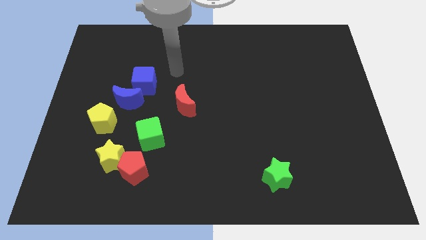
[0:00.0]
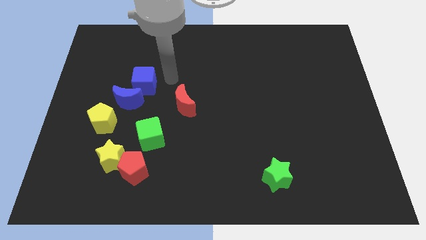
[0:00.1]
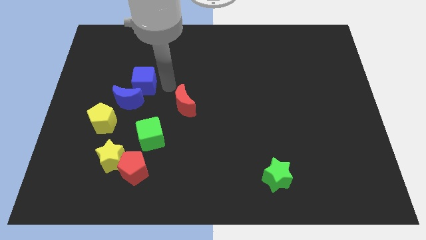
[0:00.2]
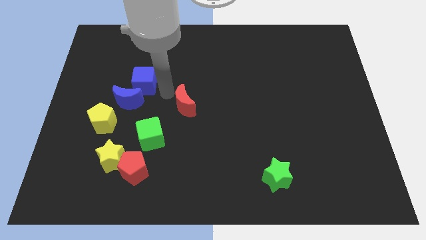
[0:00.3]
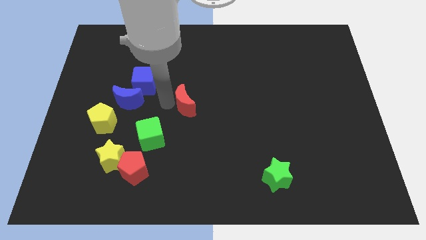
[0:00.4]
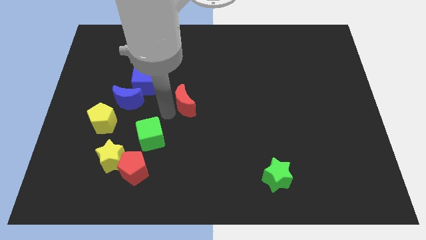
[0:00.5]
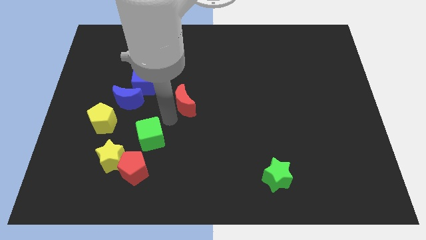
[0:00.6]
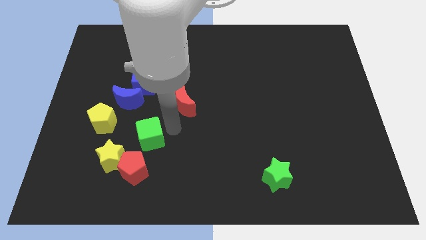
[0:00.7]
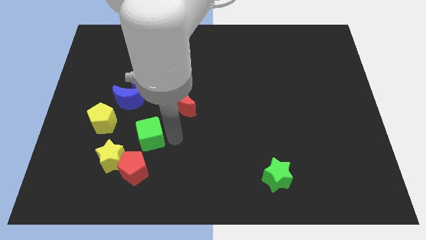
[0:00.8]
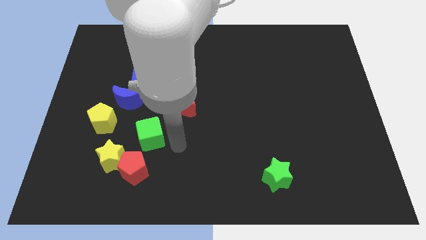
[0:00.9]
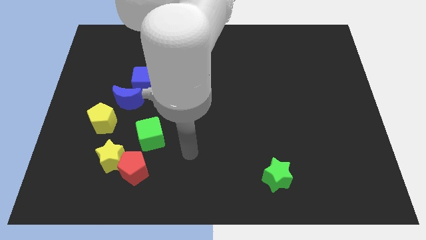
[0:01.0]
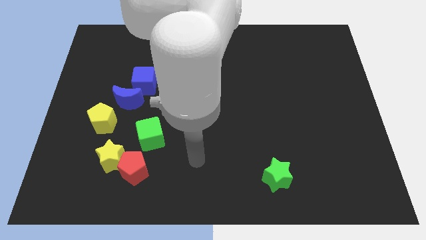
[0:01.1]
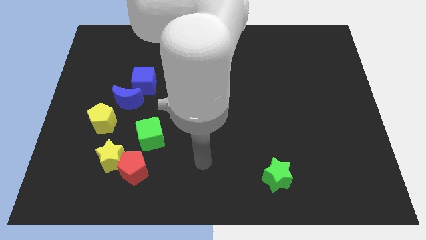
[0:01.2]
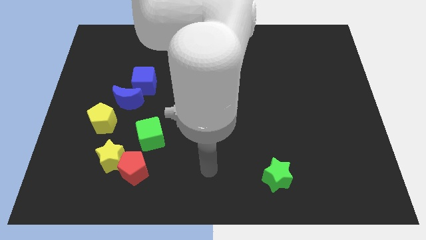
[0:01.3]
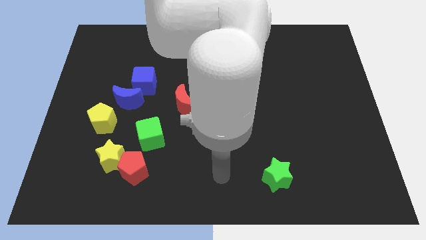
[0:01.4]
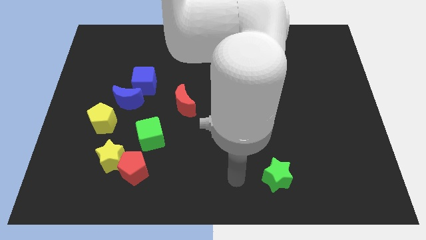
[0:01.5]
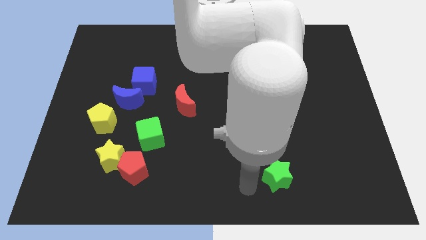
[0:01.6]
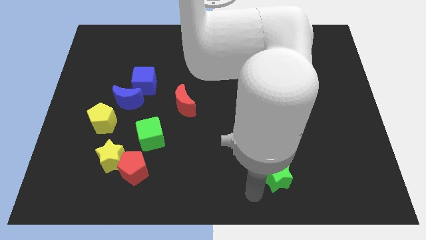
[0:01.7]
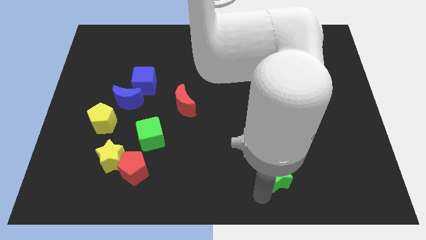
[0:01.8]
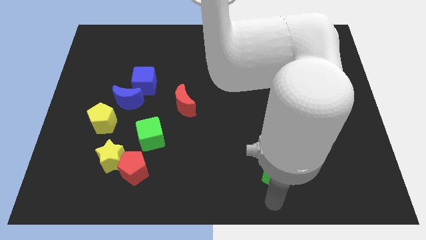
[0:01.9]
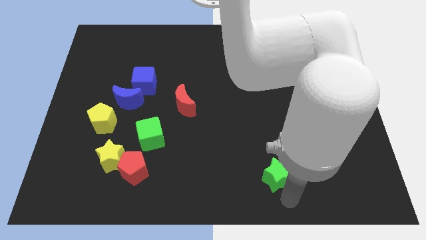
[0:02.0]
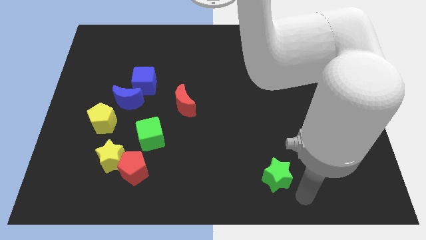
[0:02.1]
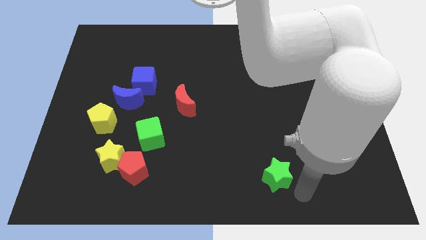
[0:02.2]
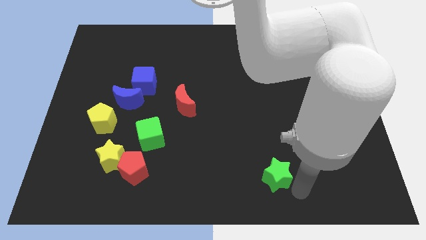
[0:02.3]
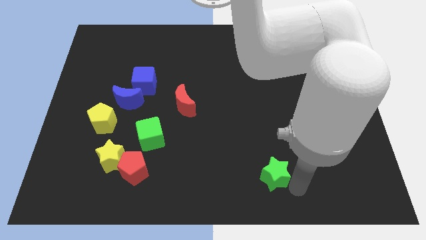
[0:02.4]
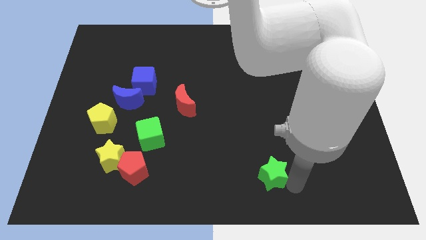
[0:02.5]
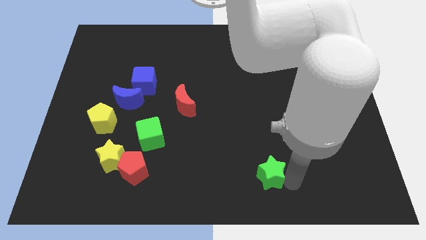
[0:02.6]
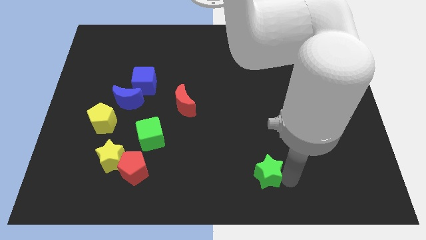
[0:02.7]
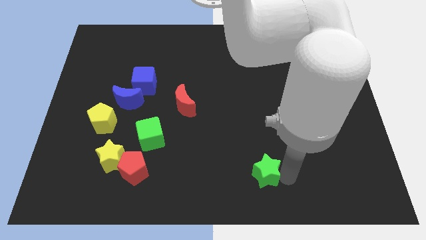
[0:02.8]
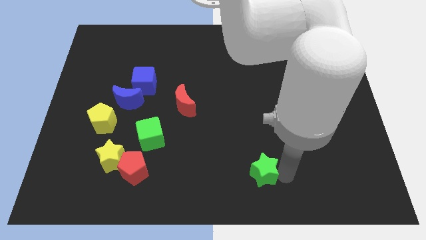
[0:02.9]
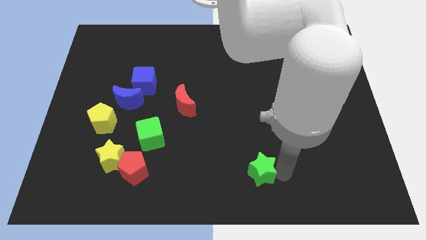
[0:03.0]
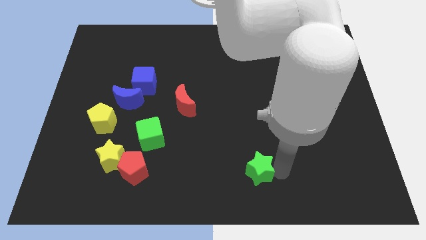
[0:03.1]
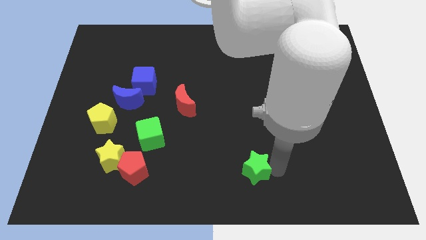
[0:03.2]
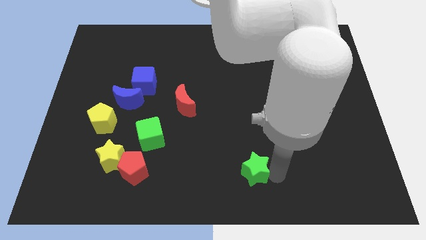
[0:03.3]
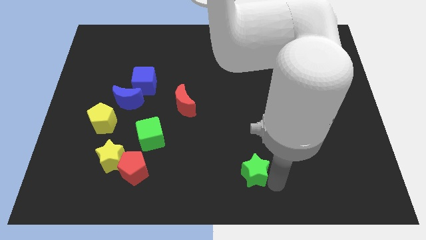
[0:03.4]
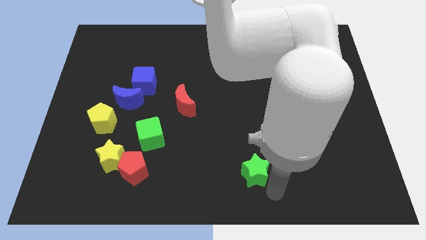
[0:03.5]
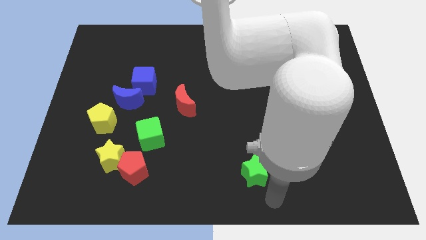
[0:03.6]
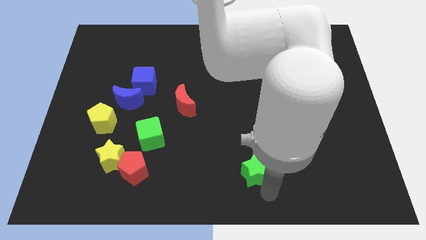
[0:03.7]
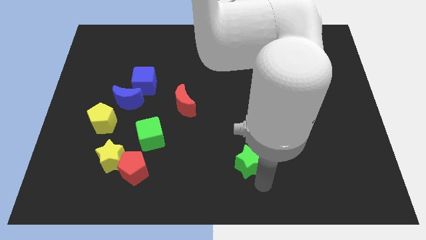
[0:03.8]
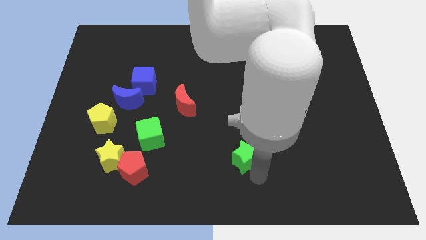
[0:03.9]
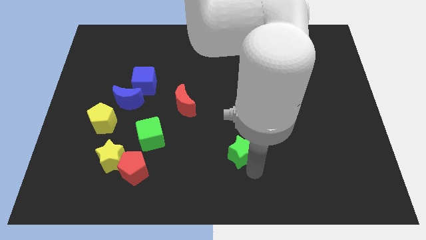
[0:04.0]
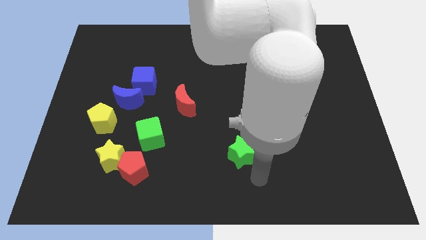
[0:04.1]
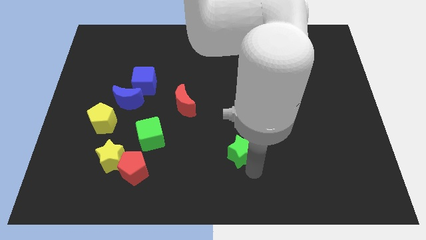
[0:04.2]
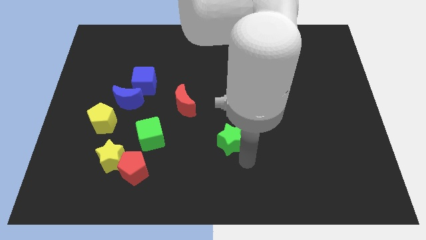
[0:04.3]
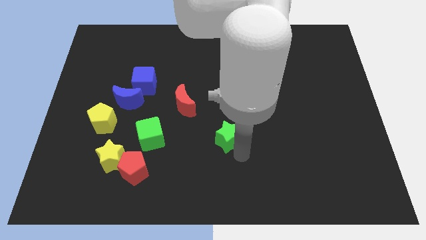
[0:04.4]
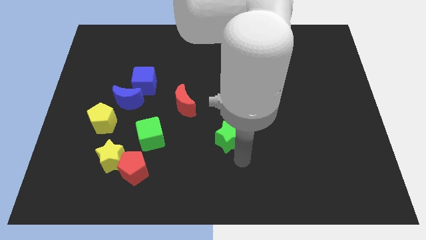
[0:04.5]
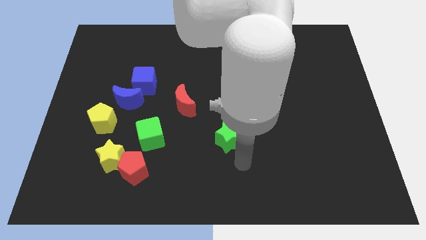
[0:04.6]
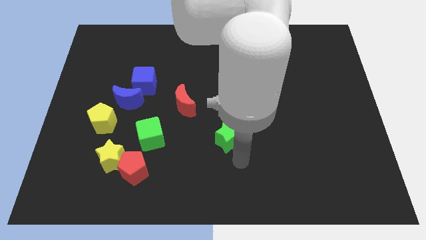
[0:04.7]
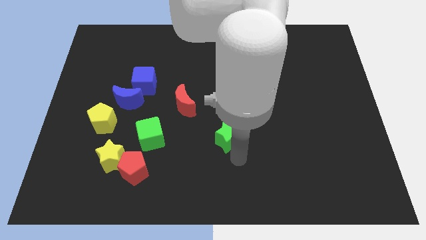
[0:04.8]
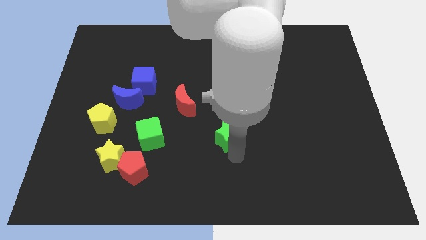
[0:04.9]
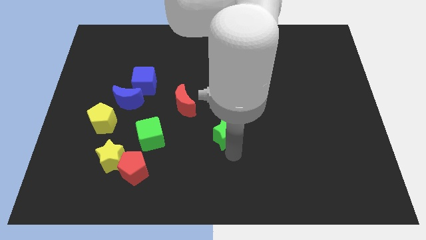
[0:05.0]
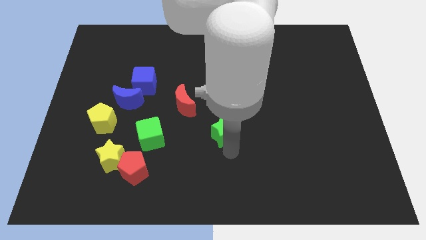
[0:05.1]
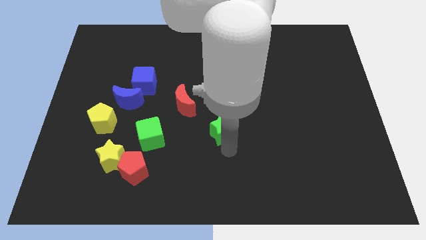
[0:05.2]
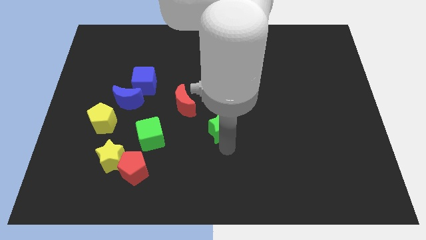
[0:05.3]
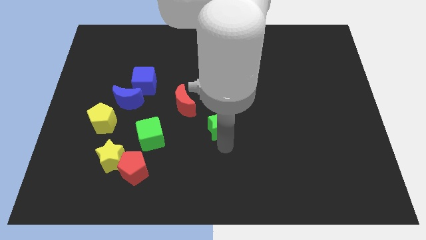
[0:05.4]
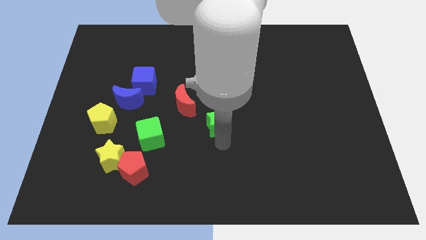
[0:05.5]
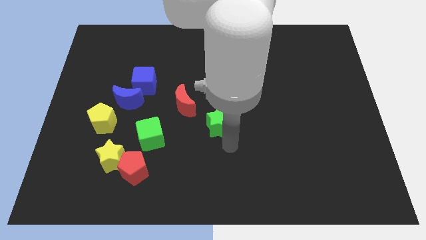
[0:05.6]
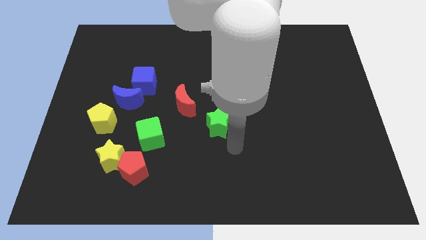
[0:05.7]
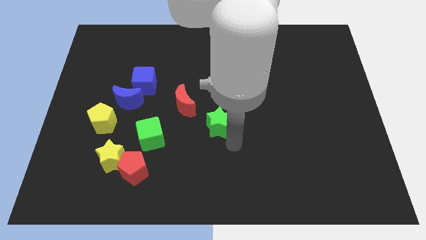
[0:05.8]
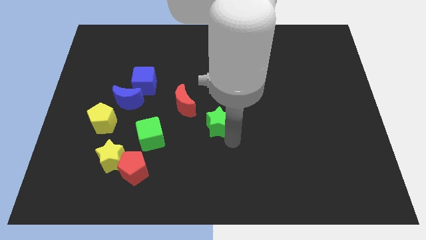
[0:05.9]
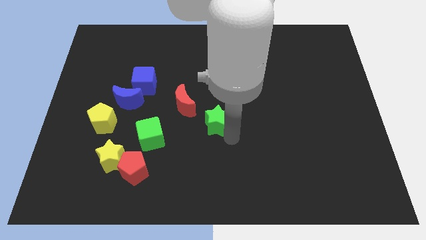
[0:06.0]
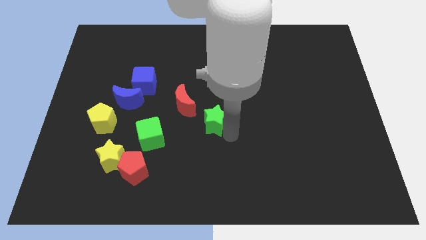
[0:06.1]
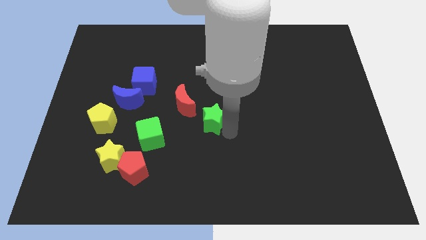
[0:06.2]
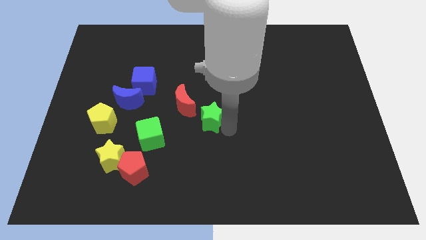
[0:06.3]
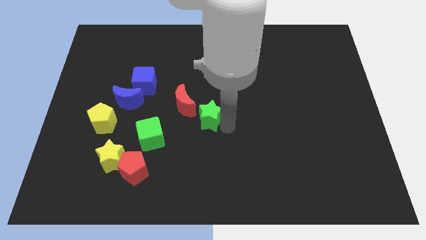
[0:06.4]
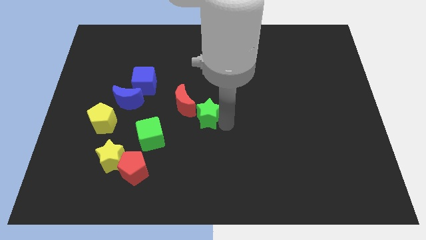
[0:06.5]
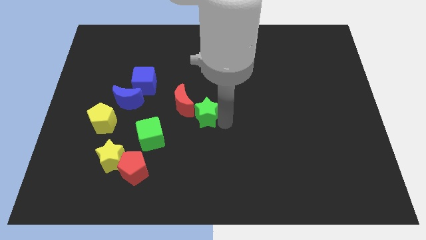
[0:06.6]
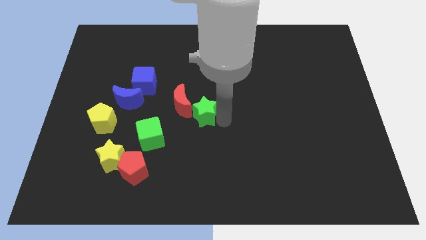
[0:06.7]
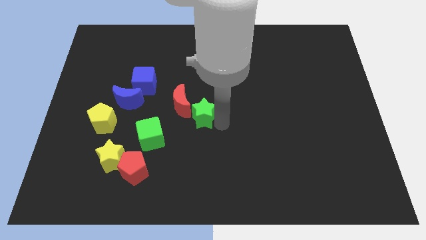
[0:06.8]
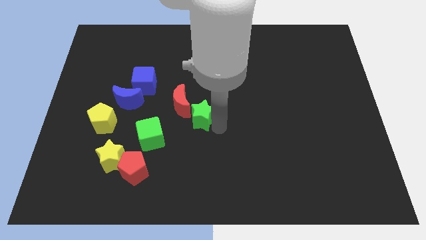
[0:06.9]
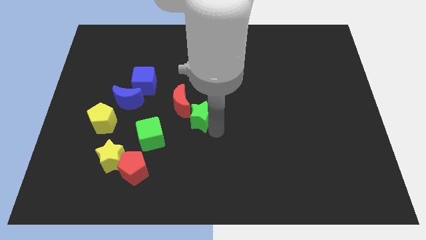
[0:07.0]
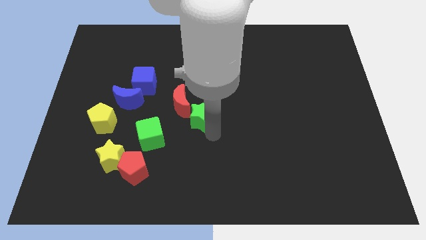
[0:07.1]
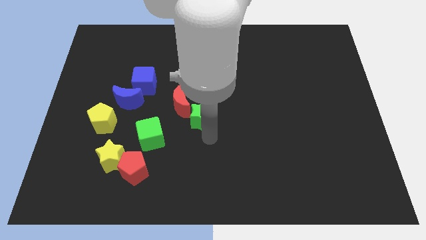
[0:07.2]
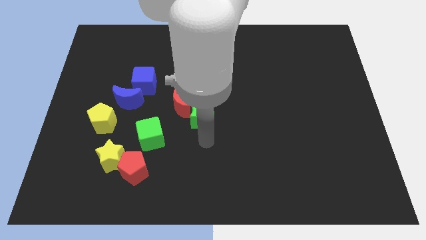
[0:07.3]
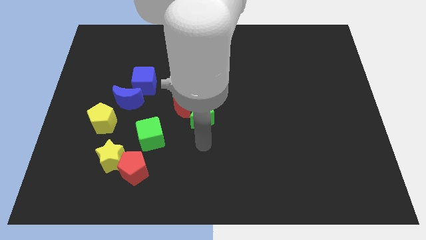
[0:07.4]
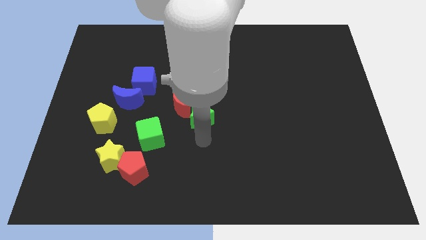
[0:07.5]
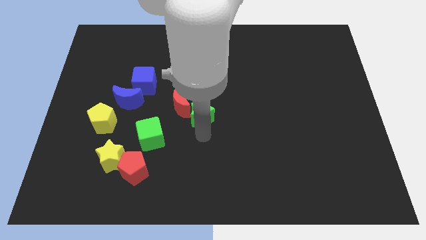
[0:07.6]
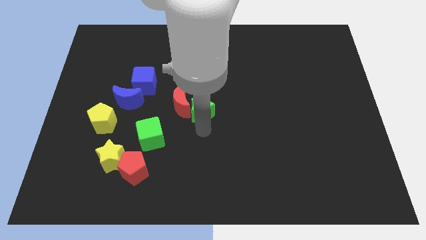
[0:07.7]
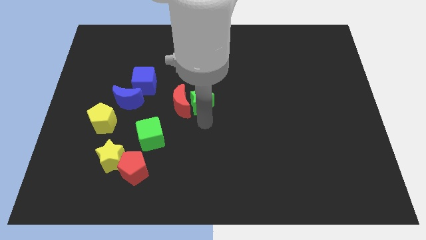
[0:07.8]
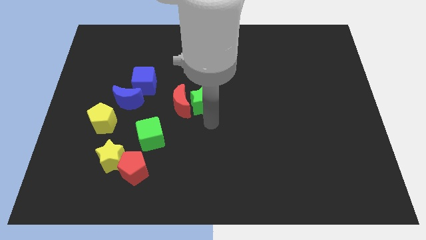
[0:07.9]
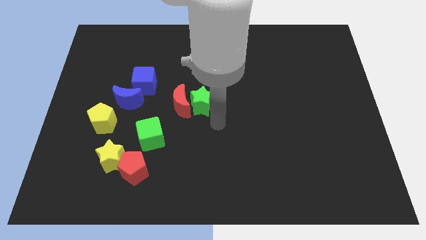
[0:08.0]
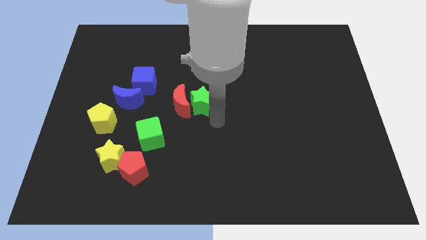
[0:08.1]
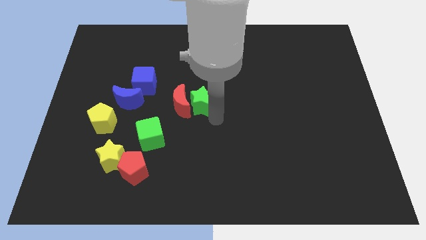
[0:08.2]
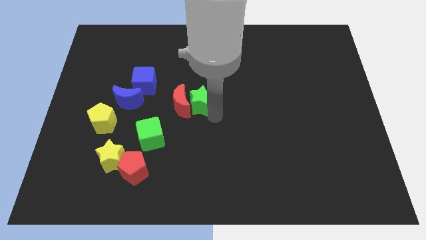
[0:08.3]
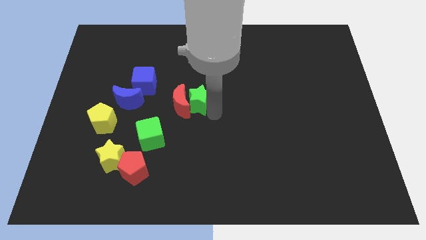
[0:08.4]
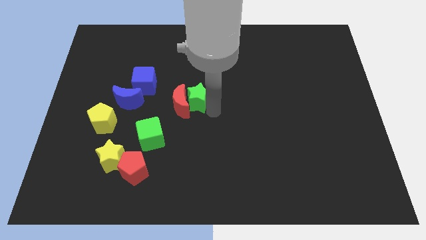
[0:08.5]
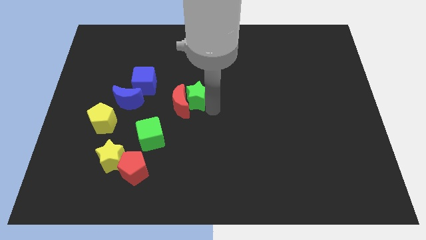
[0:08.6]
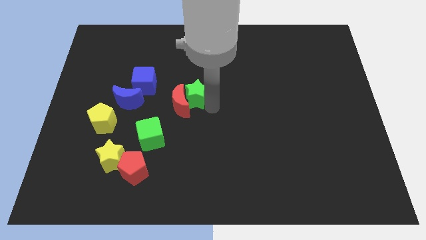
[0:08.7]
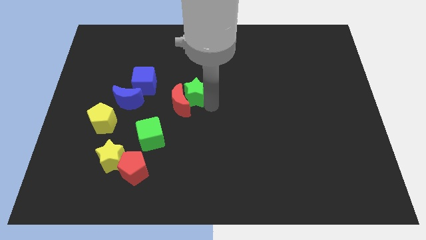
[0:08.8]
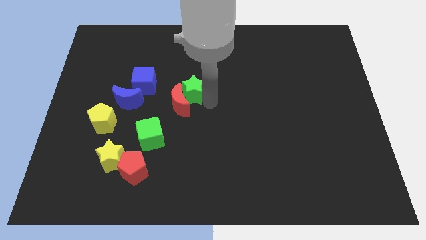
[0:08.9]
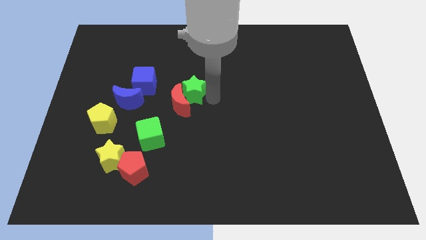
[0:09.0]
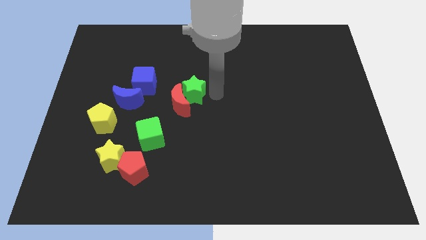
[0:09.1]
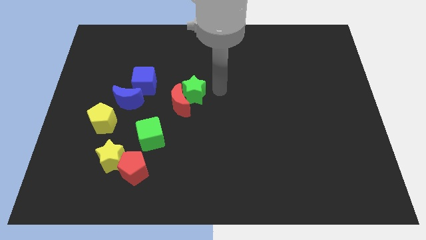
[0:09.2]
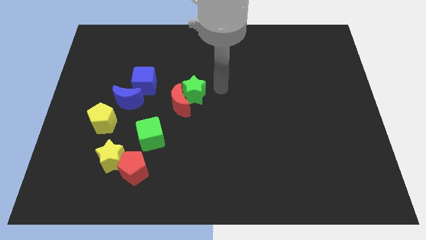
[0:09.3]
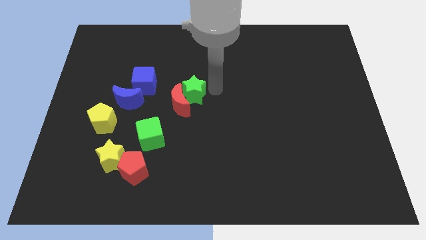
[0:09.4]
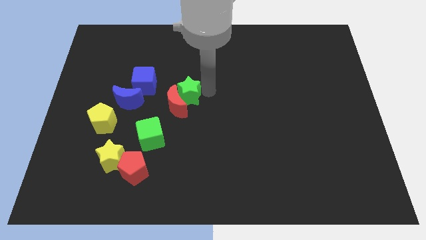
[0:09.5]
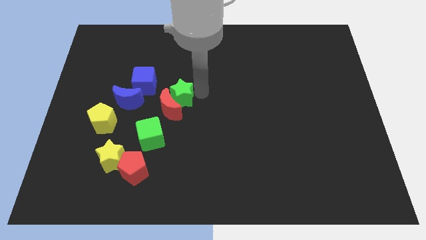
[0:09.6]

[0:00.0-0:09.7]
move the green star diagonally down and to the right of the blue cube
